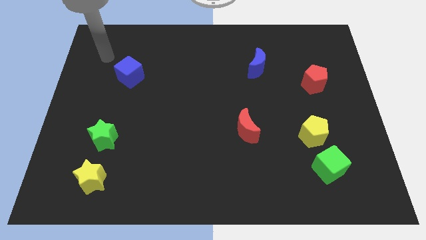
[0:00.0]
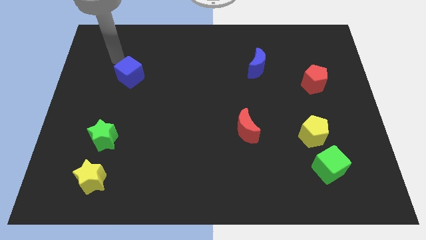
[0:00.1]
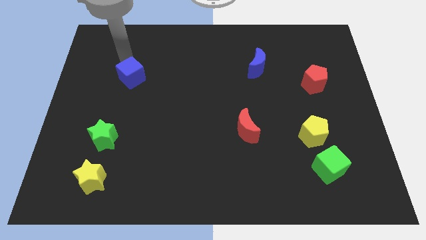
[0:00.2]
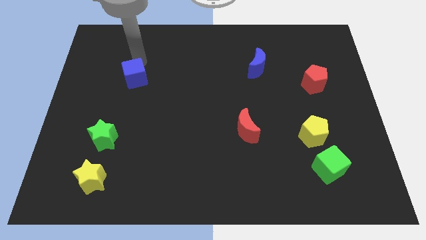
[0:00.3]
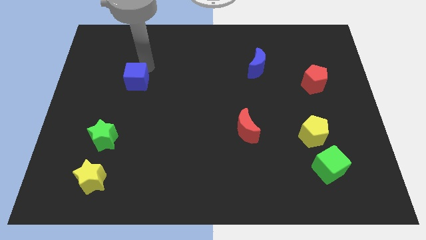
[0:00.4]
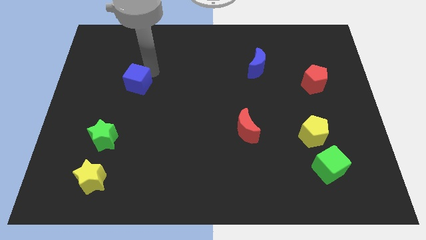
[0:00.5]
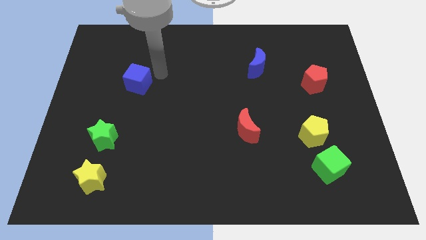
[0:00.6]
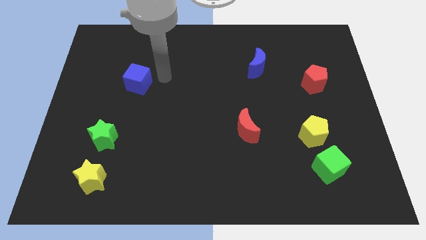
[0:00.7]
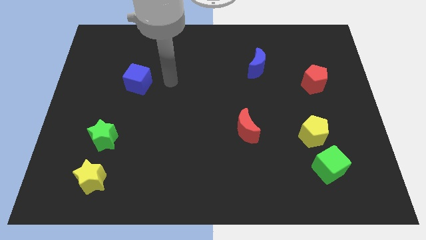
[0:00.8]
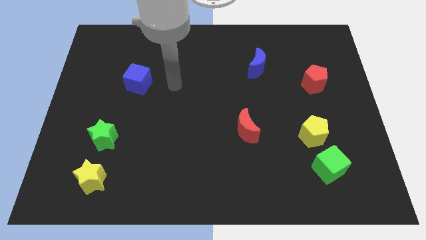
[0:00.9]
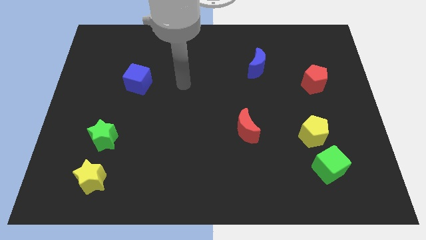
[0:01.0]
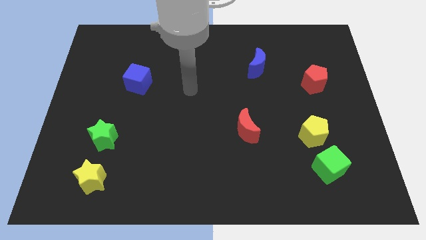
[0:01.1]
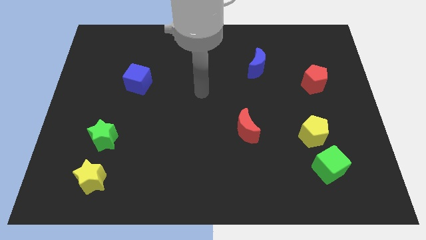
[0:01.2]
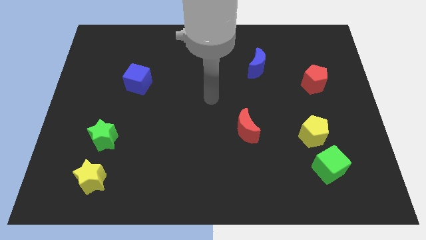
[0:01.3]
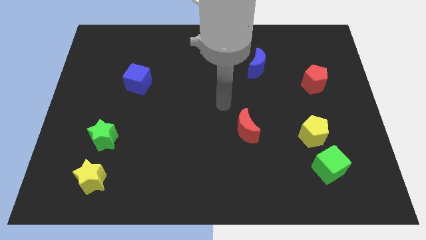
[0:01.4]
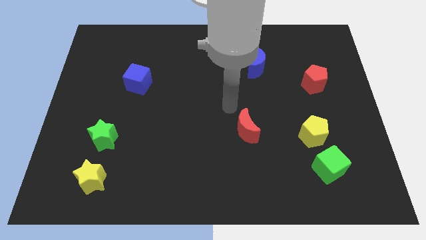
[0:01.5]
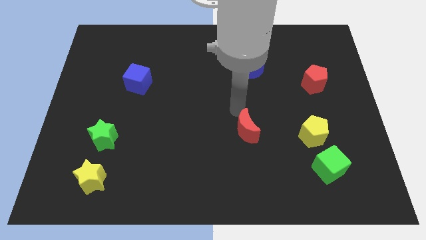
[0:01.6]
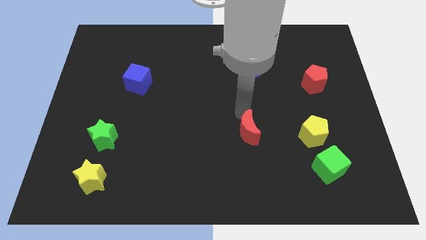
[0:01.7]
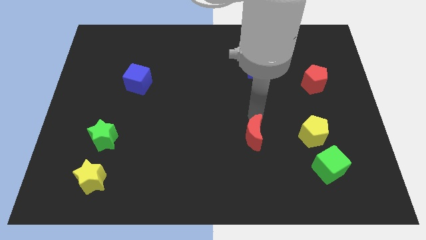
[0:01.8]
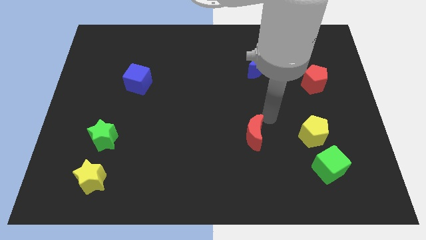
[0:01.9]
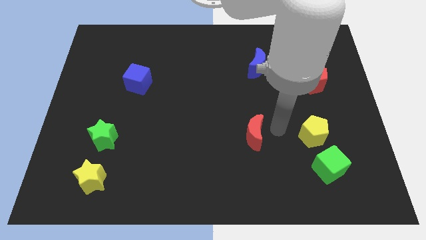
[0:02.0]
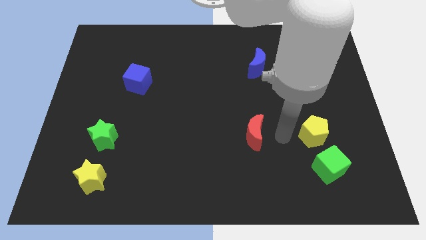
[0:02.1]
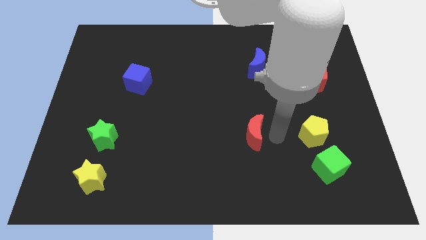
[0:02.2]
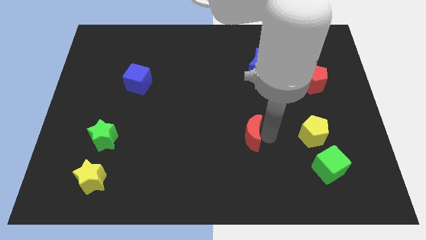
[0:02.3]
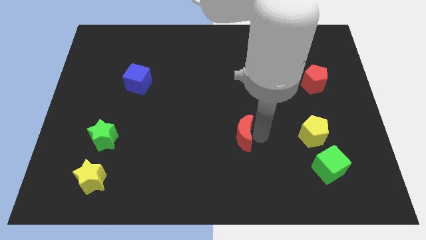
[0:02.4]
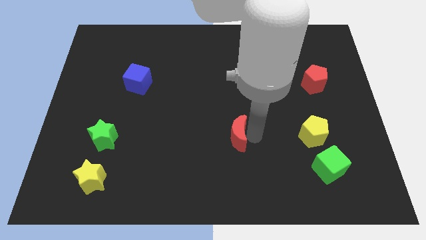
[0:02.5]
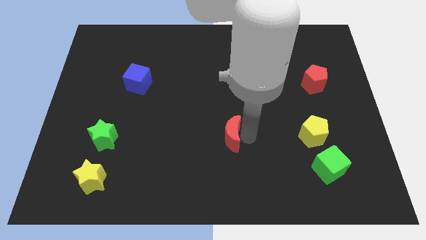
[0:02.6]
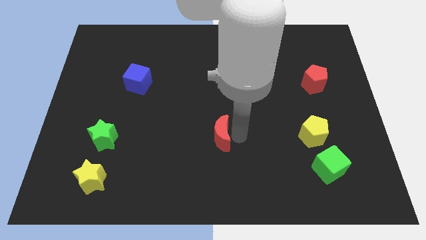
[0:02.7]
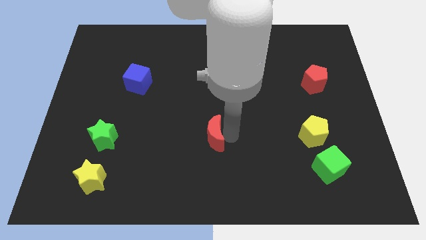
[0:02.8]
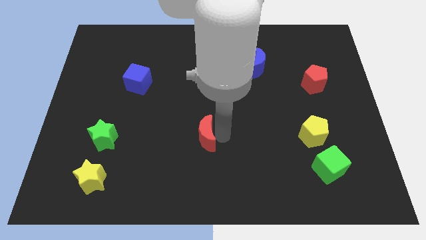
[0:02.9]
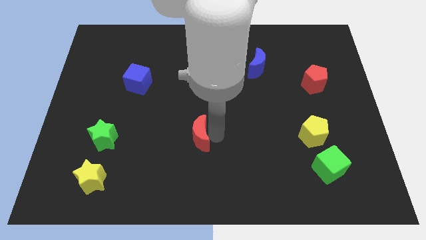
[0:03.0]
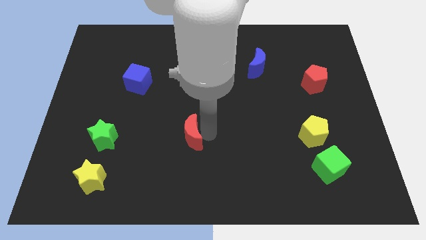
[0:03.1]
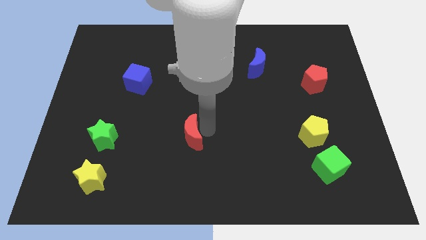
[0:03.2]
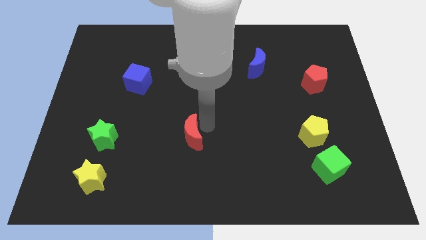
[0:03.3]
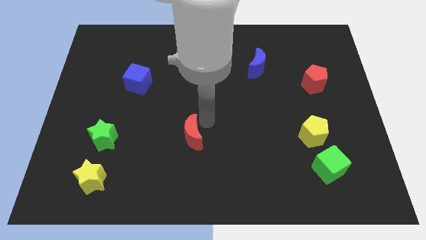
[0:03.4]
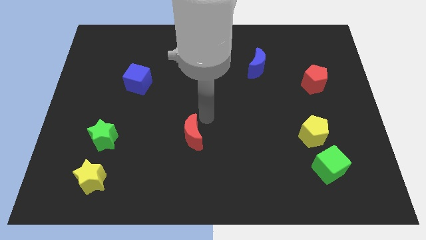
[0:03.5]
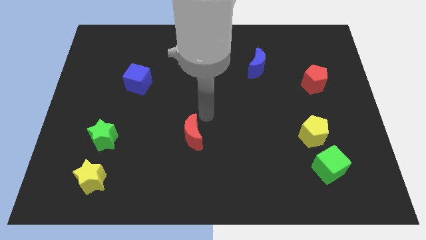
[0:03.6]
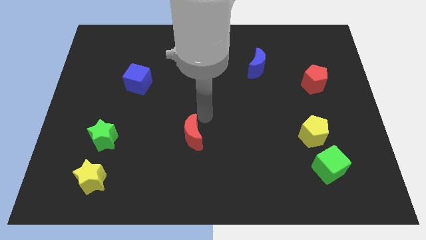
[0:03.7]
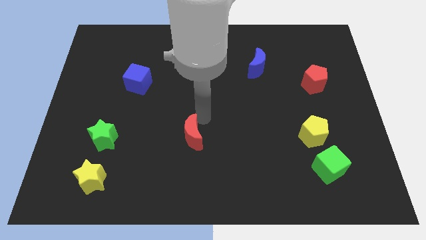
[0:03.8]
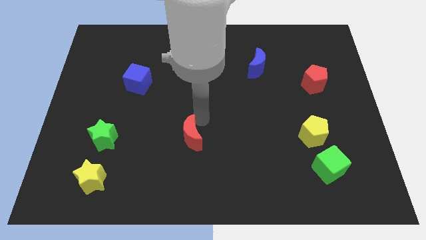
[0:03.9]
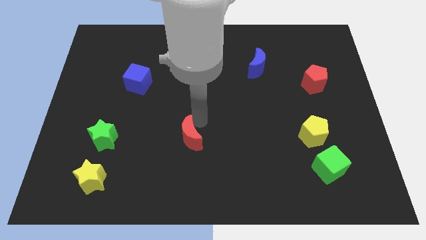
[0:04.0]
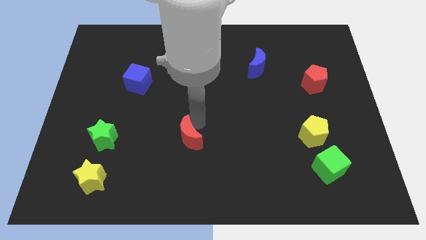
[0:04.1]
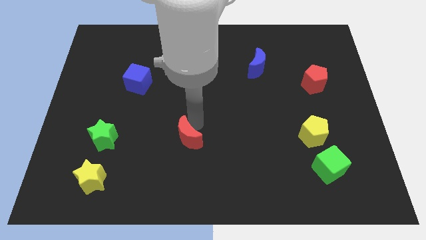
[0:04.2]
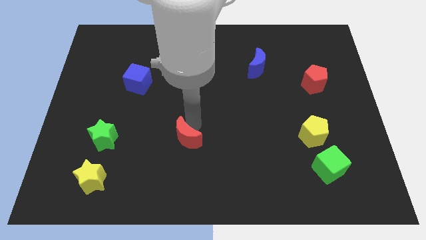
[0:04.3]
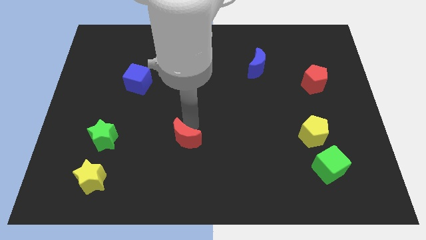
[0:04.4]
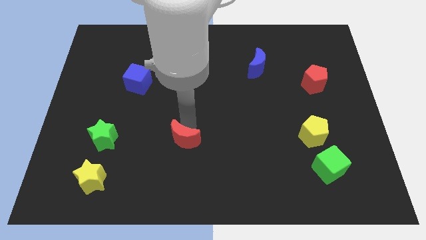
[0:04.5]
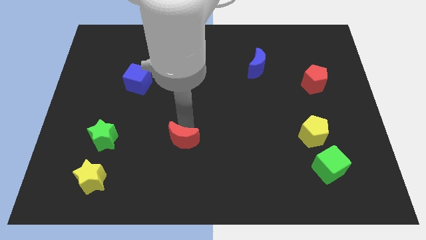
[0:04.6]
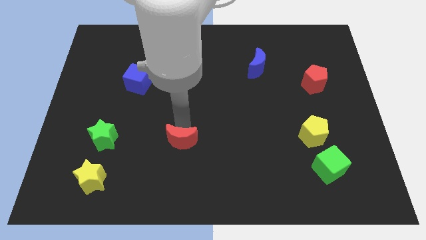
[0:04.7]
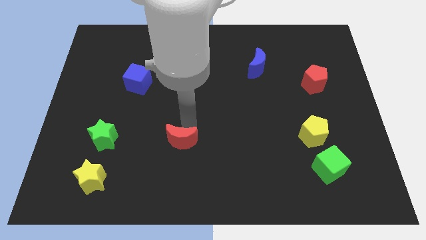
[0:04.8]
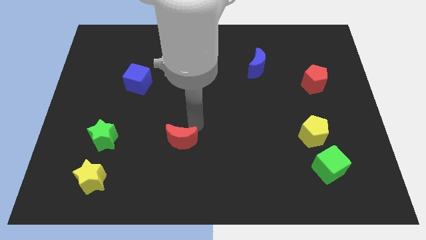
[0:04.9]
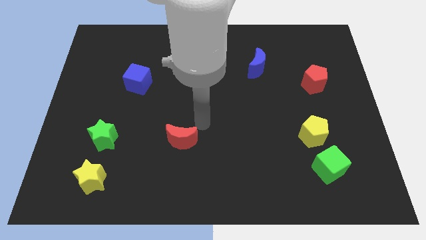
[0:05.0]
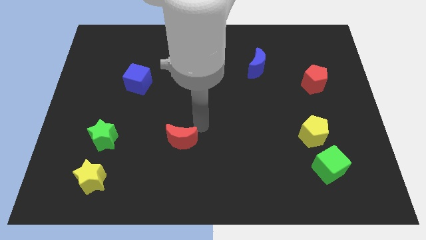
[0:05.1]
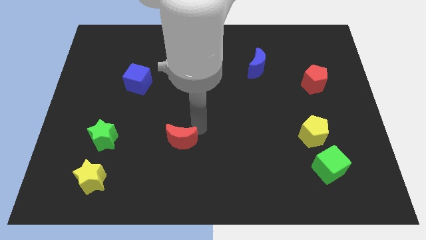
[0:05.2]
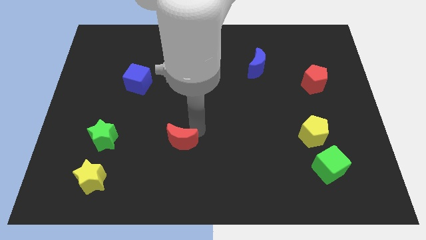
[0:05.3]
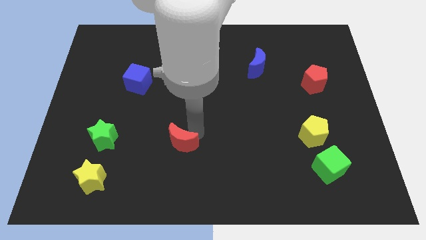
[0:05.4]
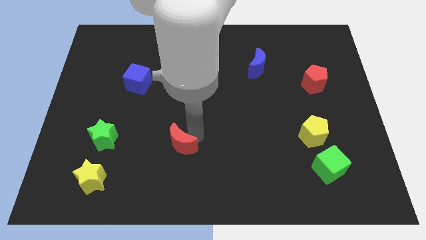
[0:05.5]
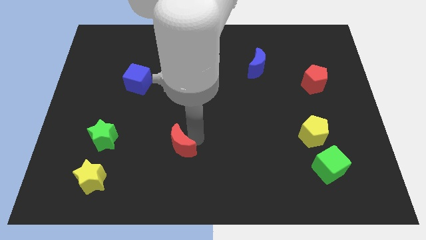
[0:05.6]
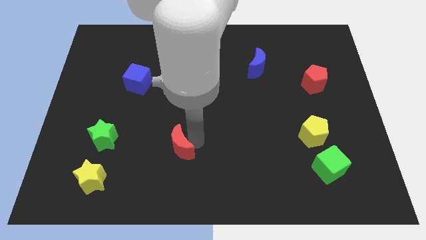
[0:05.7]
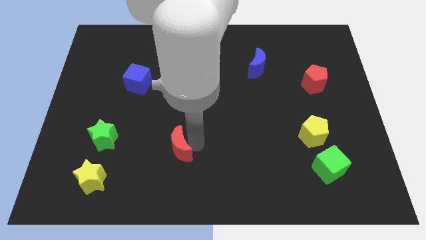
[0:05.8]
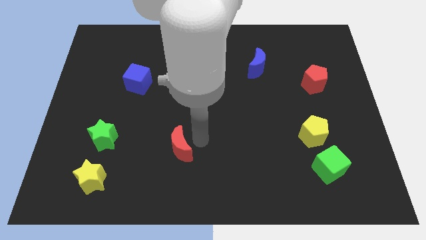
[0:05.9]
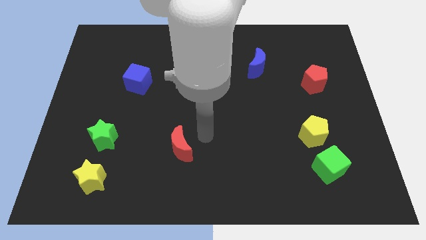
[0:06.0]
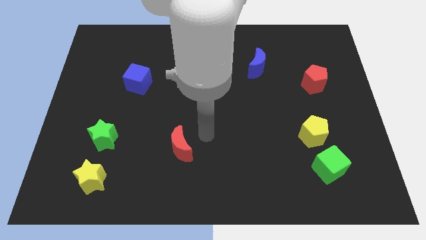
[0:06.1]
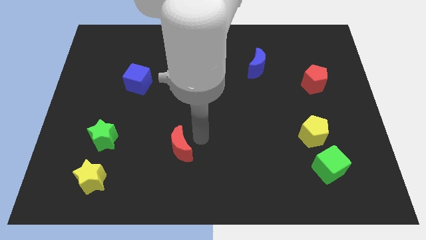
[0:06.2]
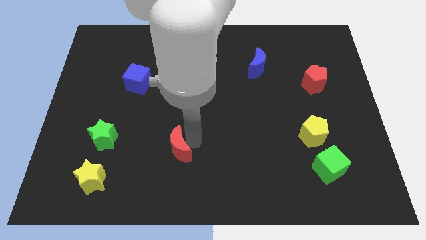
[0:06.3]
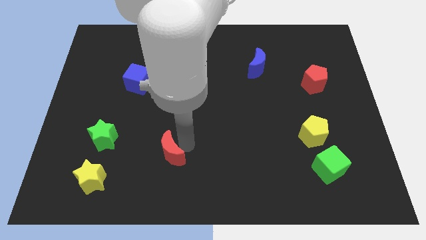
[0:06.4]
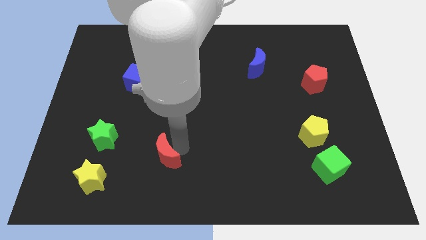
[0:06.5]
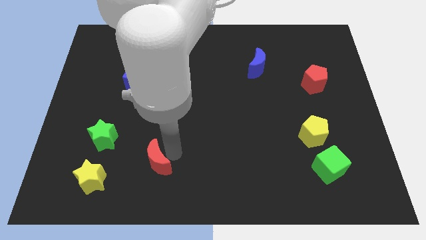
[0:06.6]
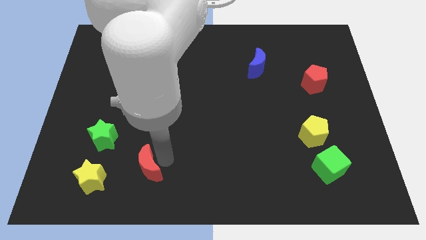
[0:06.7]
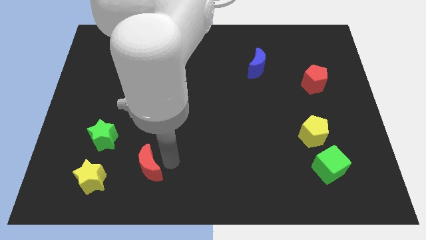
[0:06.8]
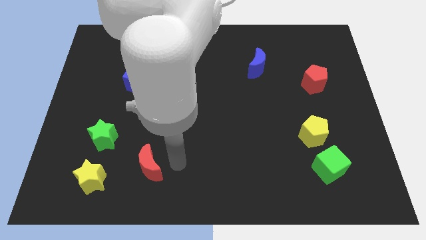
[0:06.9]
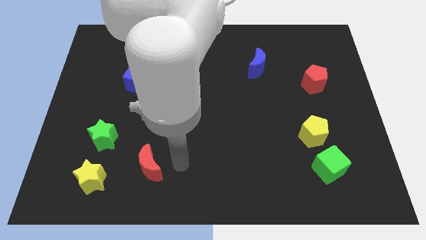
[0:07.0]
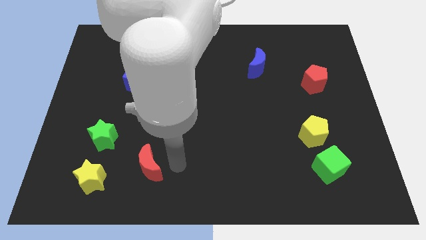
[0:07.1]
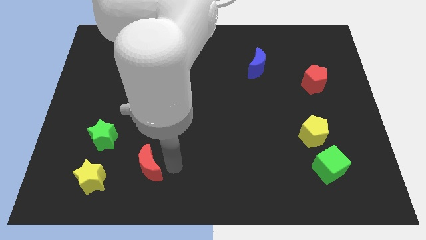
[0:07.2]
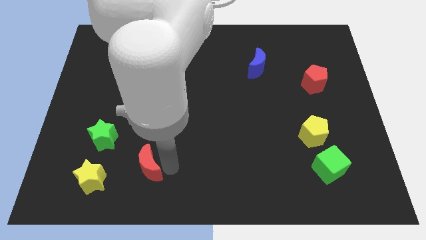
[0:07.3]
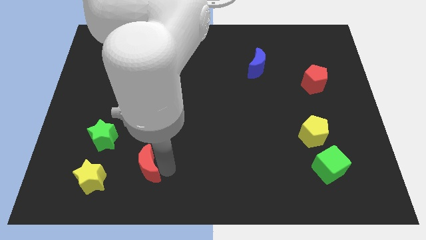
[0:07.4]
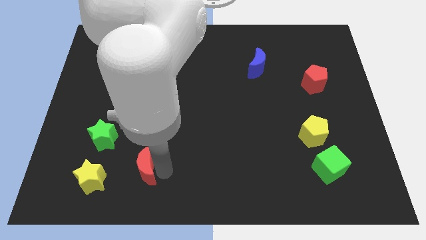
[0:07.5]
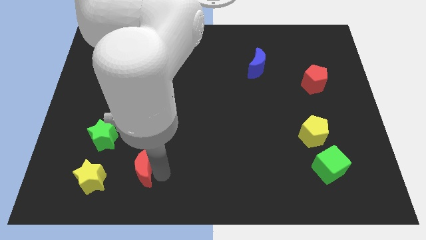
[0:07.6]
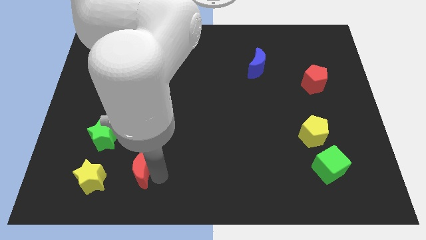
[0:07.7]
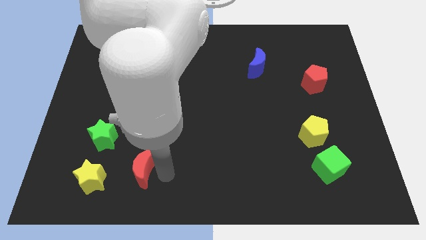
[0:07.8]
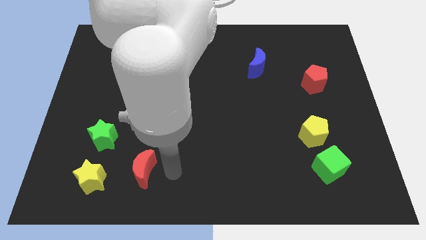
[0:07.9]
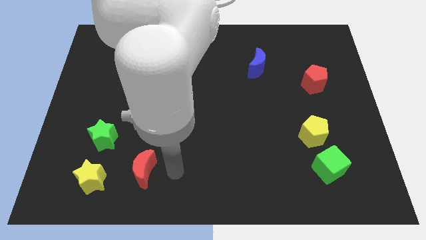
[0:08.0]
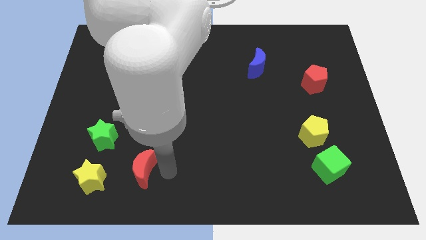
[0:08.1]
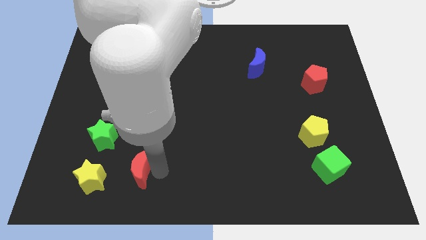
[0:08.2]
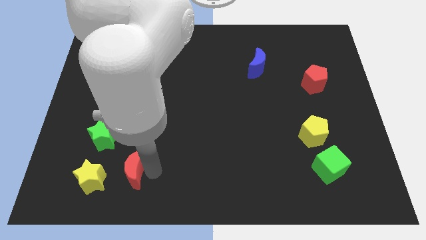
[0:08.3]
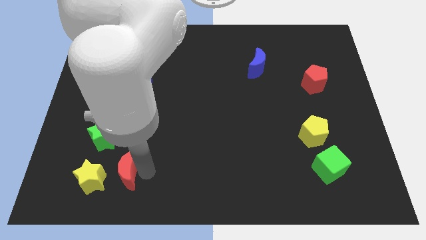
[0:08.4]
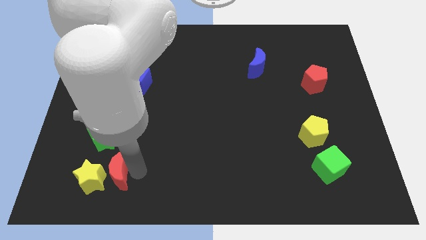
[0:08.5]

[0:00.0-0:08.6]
move the red moon towards the yellow star
